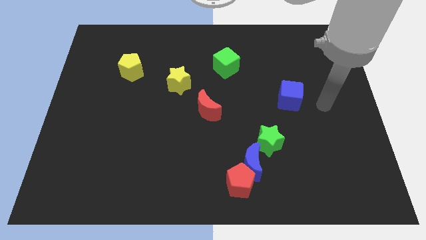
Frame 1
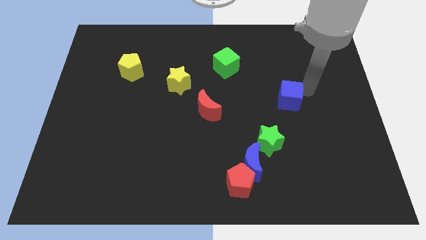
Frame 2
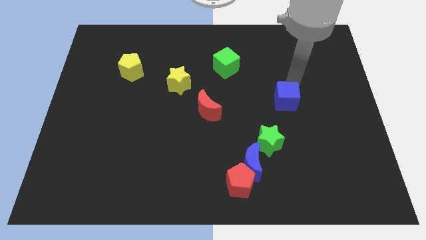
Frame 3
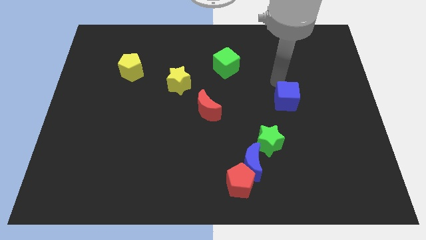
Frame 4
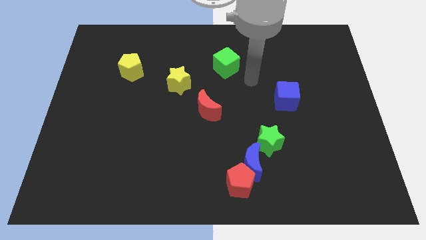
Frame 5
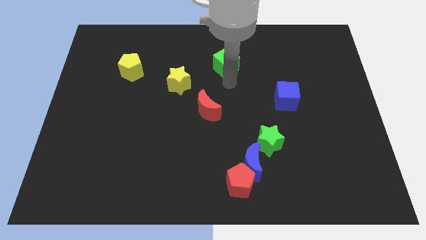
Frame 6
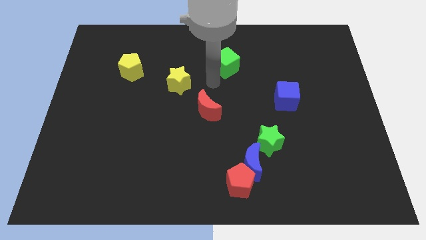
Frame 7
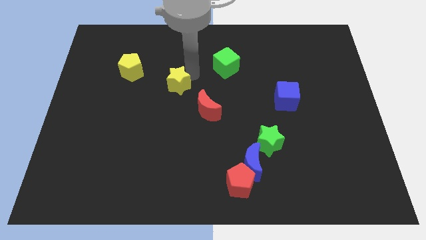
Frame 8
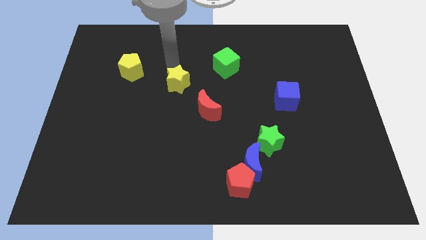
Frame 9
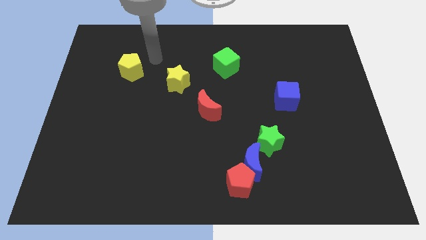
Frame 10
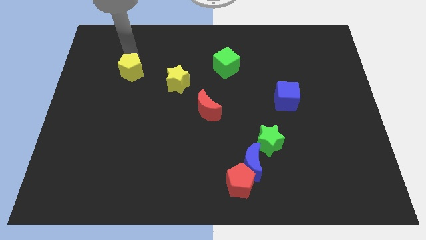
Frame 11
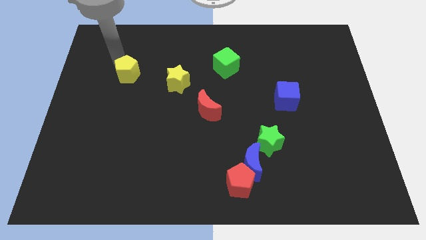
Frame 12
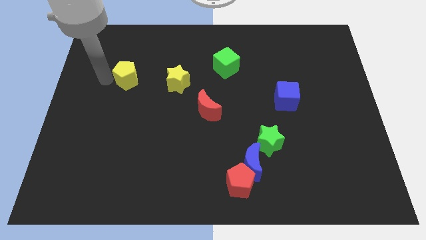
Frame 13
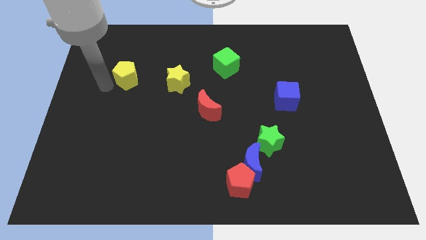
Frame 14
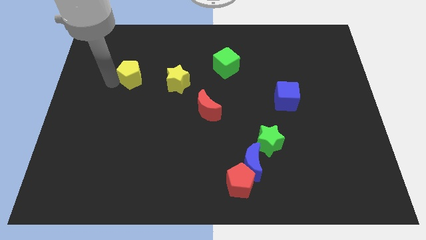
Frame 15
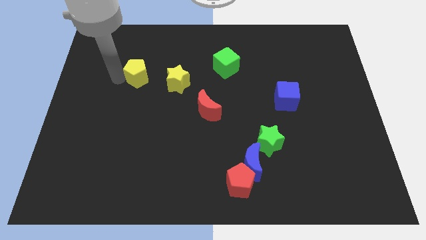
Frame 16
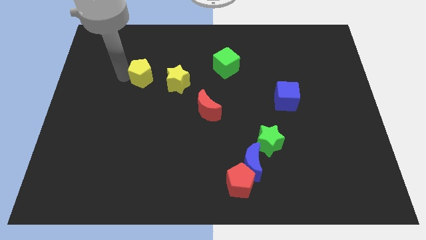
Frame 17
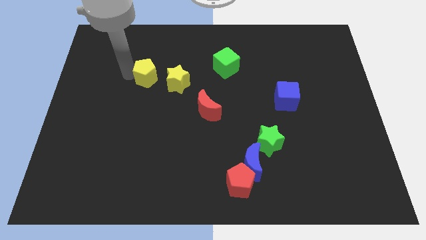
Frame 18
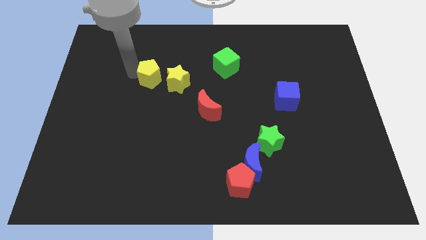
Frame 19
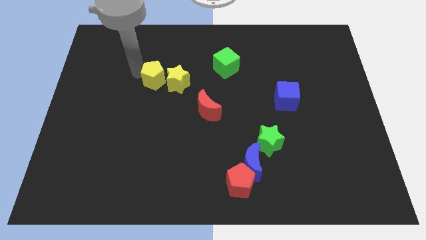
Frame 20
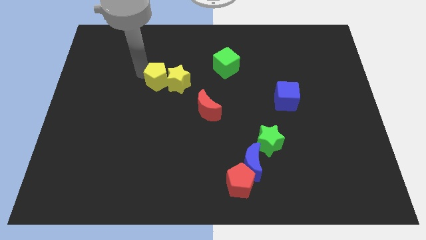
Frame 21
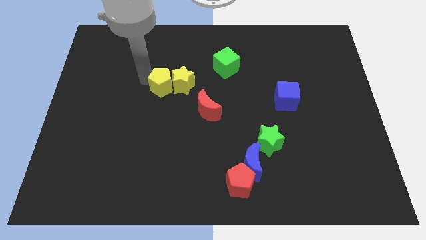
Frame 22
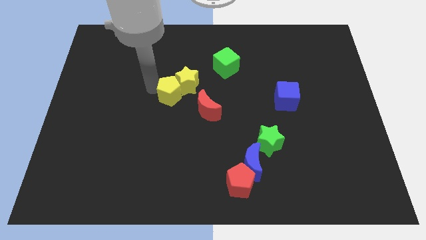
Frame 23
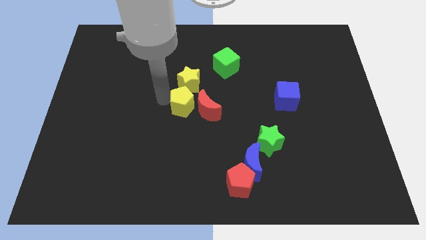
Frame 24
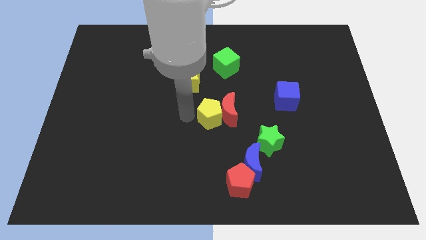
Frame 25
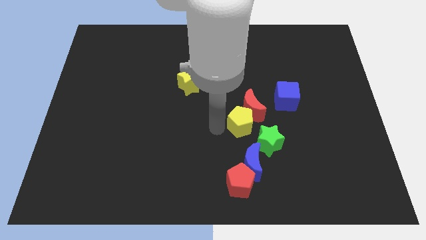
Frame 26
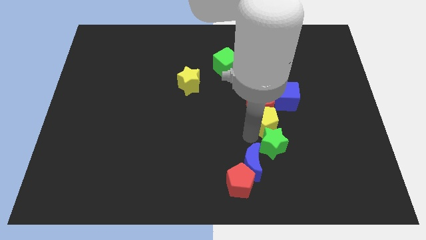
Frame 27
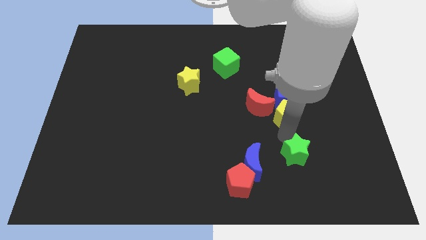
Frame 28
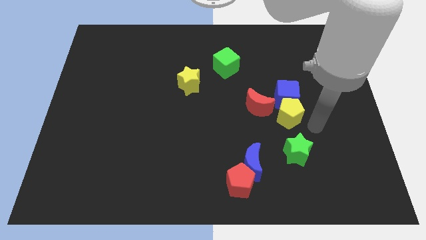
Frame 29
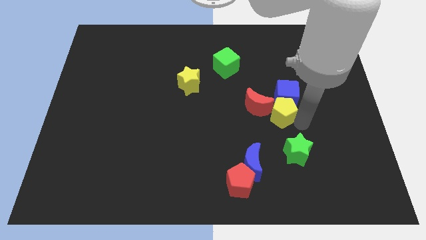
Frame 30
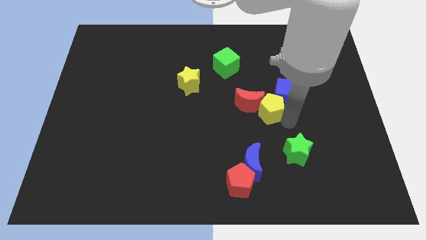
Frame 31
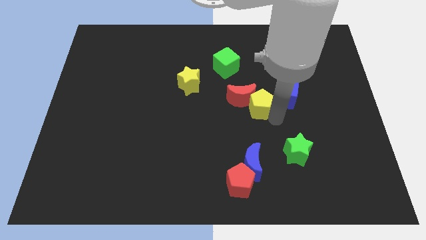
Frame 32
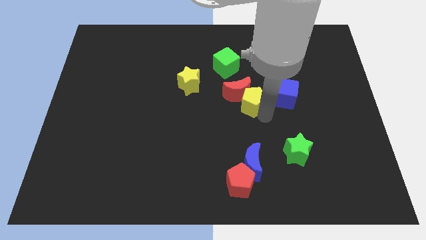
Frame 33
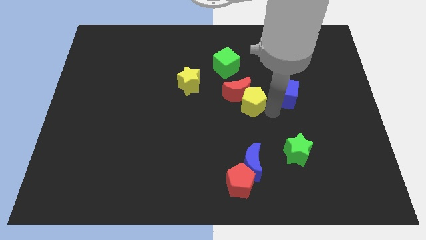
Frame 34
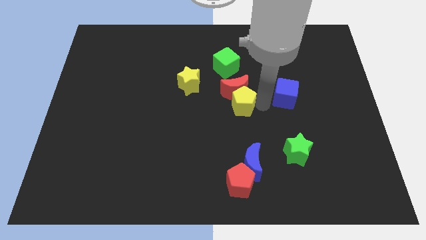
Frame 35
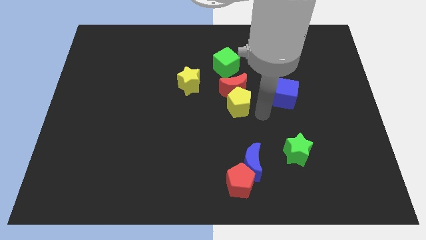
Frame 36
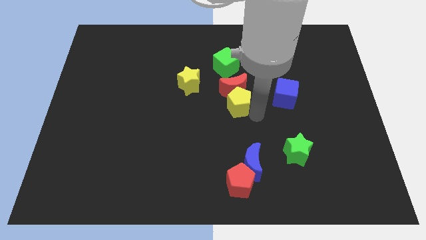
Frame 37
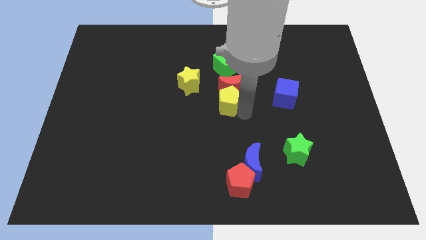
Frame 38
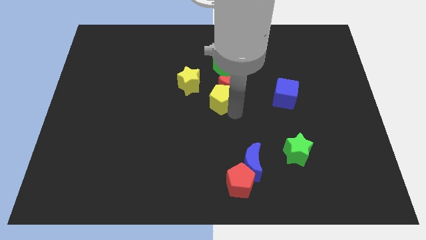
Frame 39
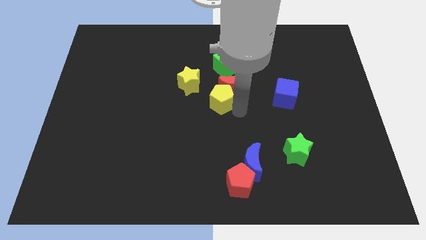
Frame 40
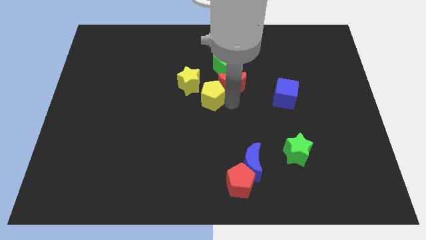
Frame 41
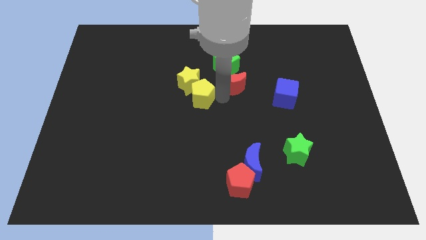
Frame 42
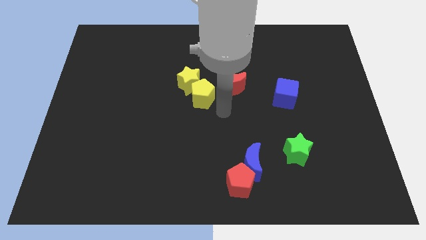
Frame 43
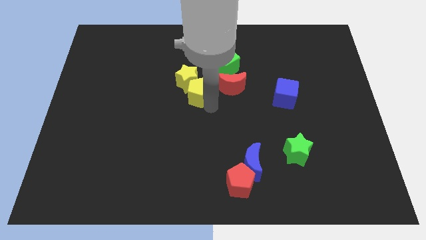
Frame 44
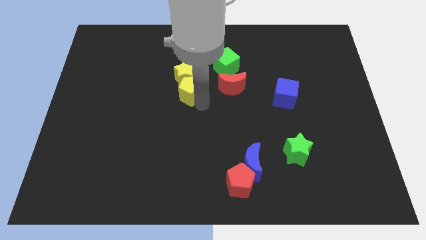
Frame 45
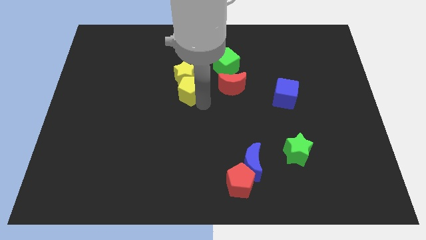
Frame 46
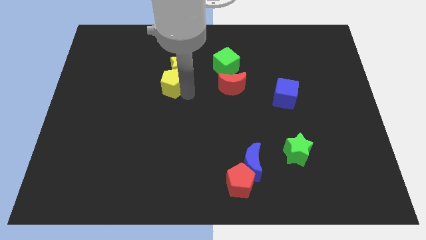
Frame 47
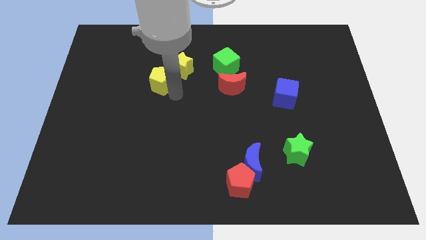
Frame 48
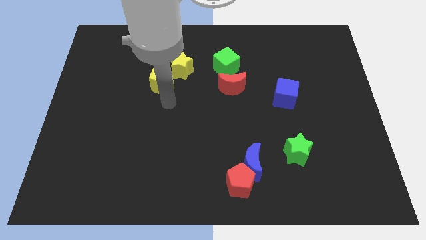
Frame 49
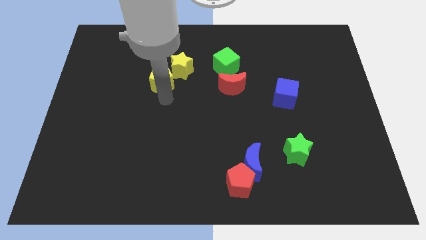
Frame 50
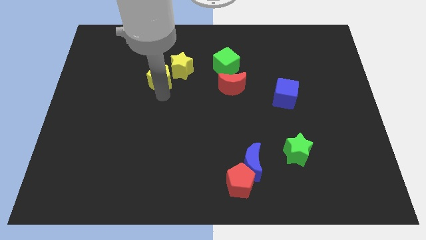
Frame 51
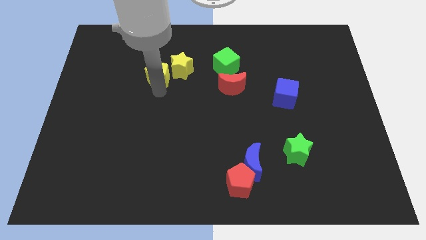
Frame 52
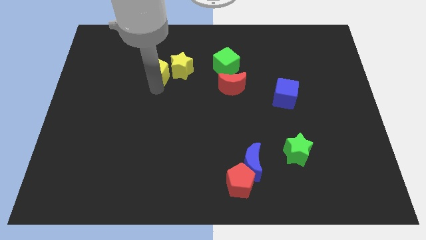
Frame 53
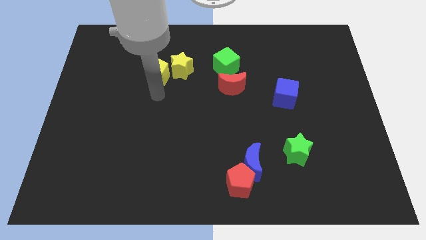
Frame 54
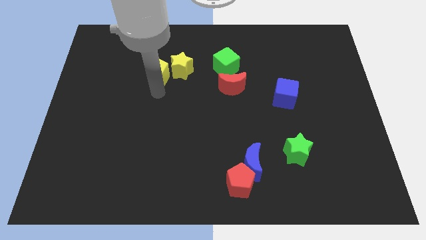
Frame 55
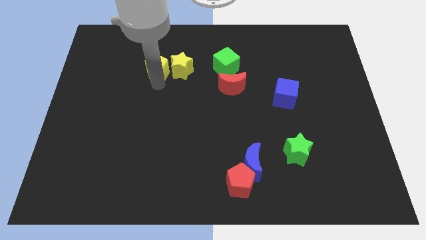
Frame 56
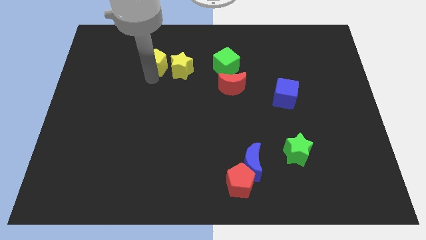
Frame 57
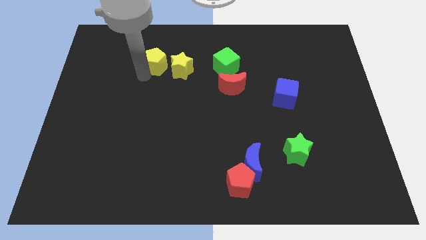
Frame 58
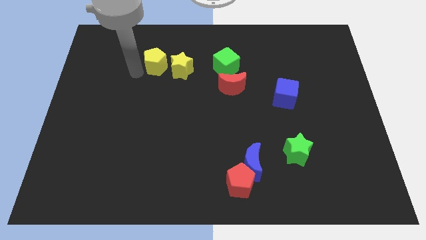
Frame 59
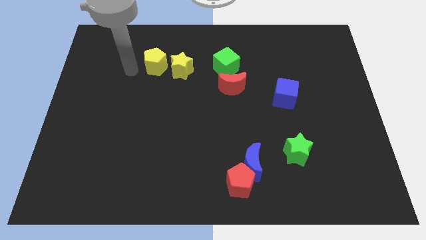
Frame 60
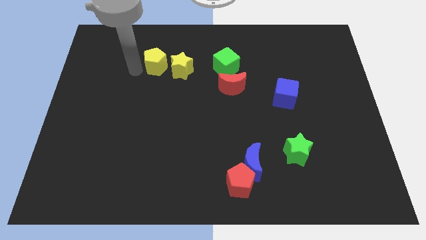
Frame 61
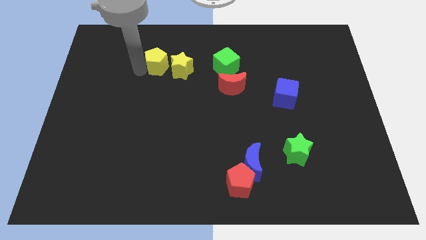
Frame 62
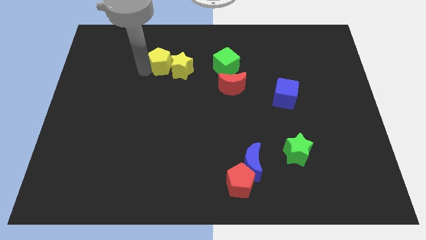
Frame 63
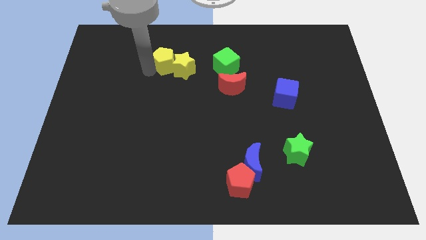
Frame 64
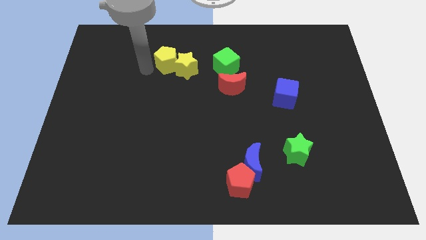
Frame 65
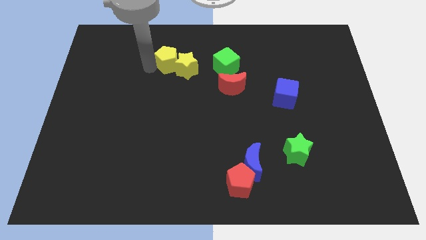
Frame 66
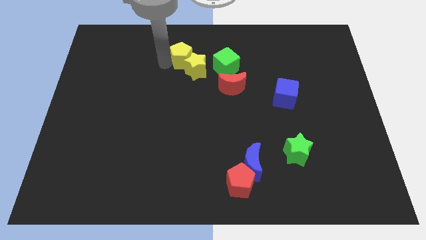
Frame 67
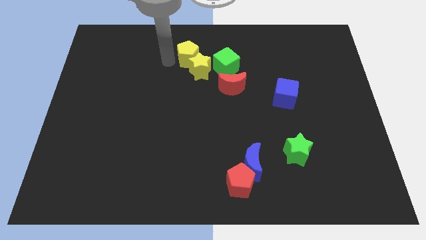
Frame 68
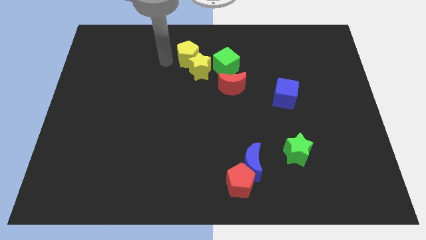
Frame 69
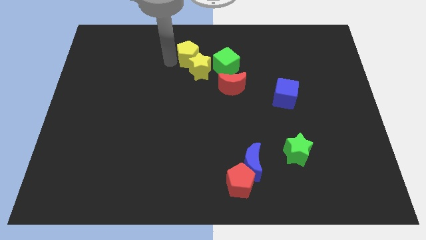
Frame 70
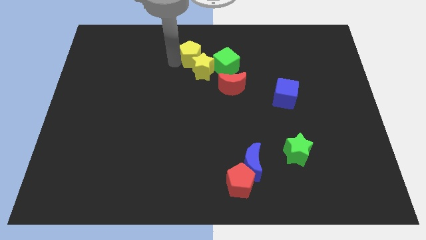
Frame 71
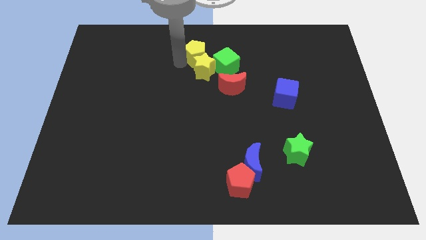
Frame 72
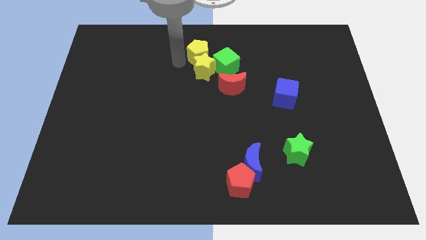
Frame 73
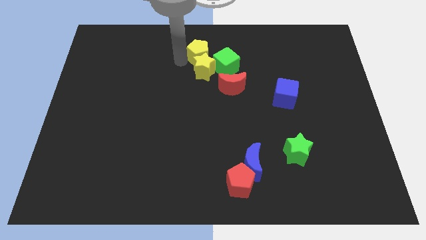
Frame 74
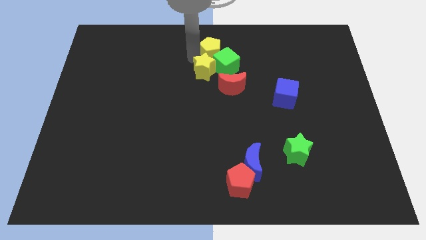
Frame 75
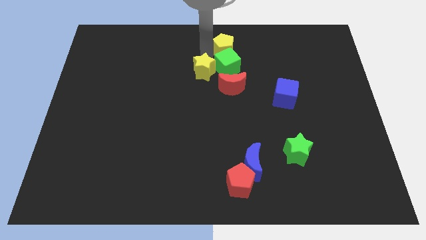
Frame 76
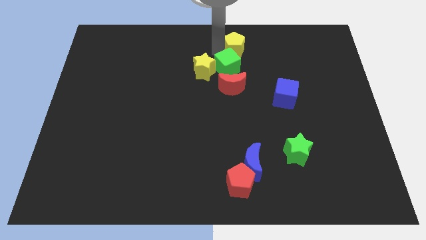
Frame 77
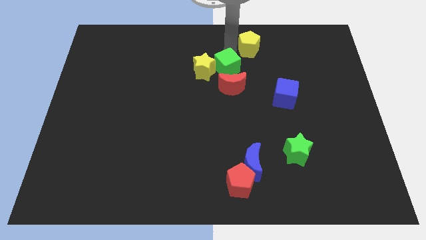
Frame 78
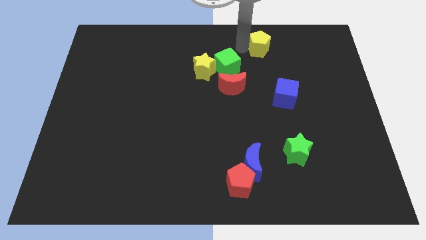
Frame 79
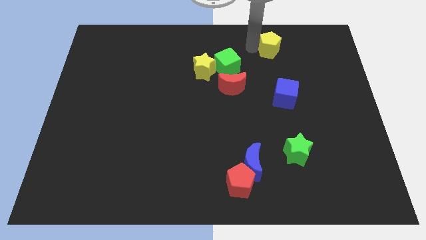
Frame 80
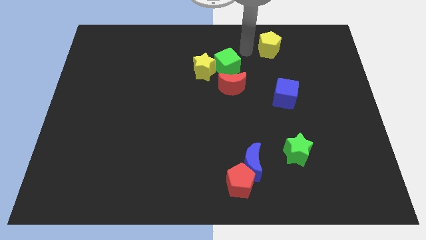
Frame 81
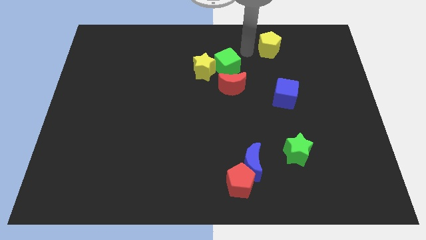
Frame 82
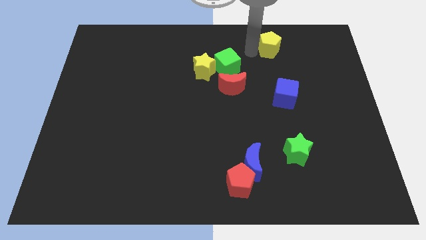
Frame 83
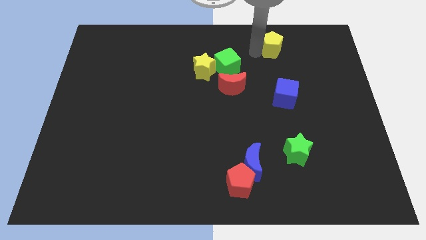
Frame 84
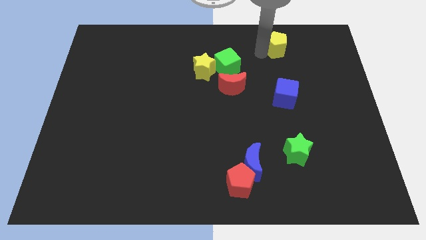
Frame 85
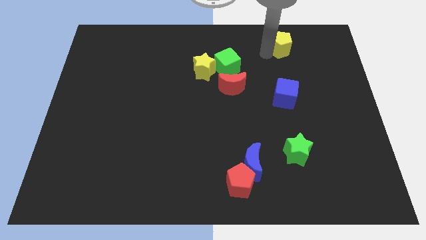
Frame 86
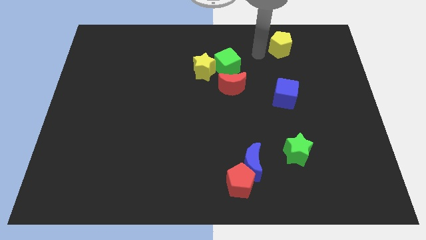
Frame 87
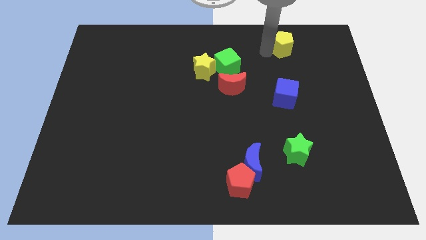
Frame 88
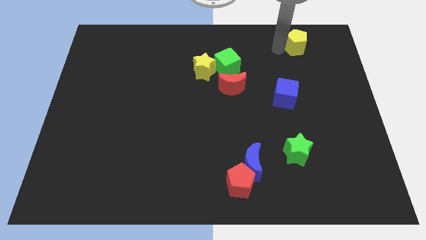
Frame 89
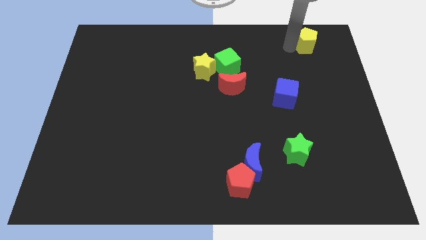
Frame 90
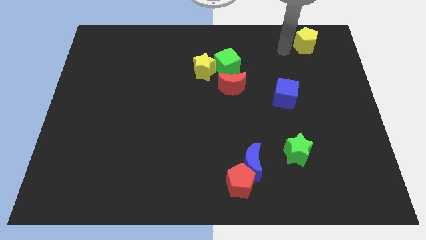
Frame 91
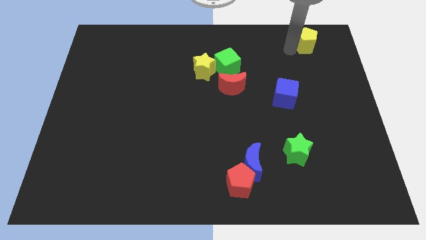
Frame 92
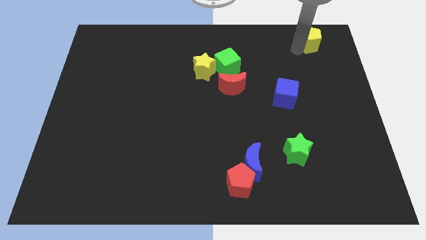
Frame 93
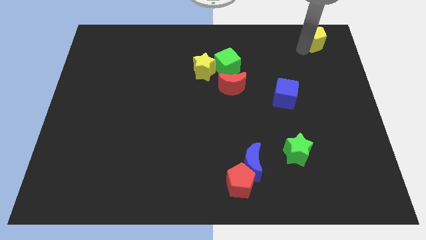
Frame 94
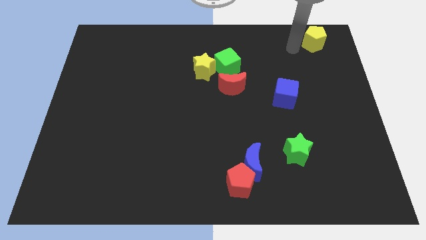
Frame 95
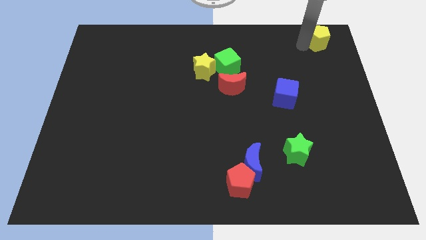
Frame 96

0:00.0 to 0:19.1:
move the yellow pentagon to the upper right corner
